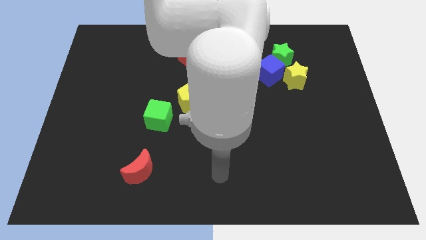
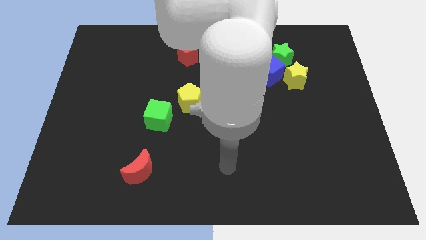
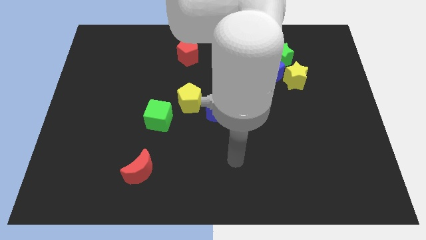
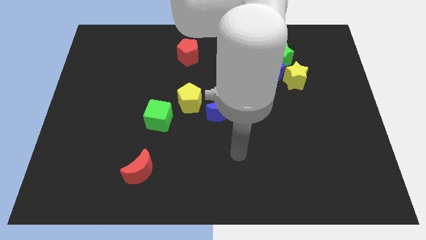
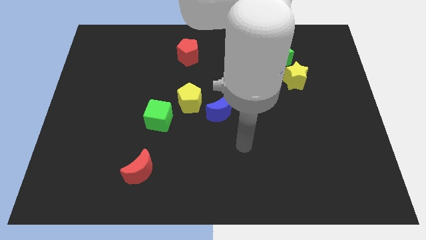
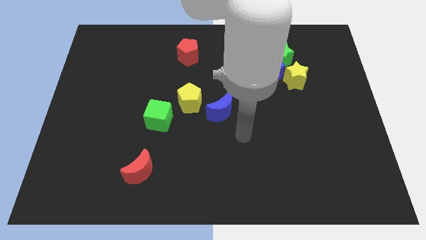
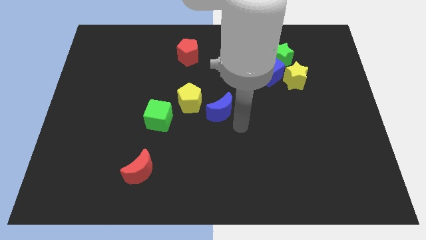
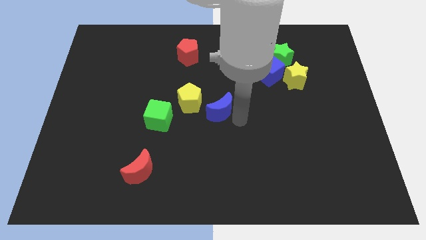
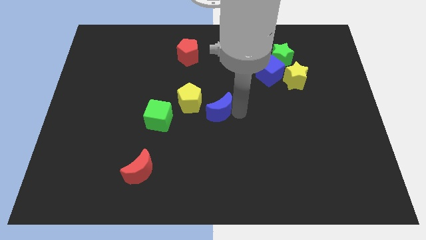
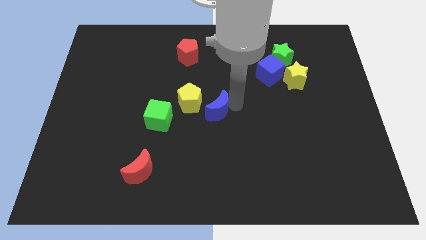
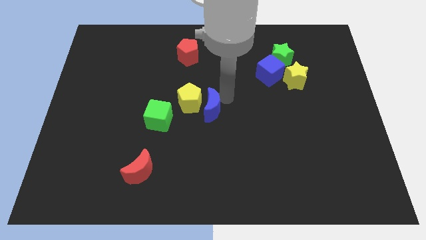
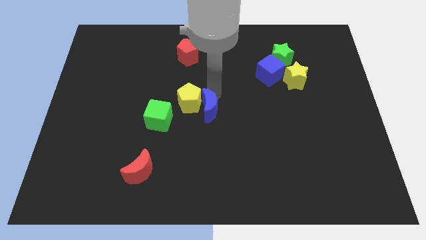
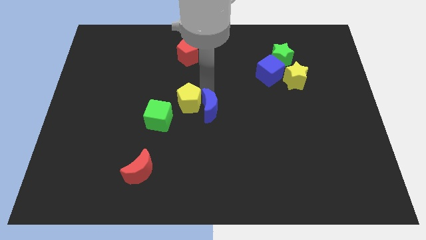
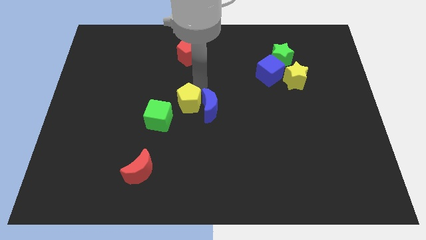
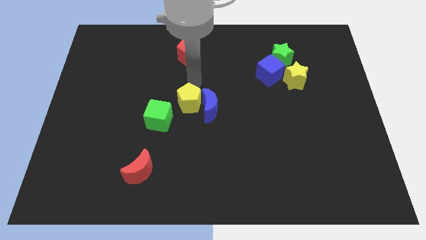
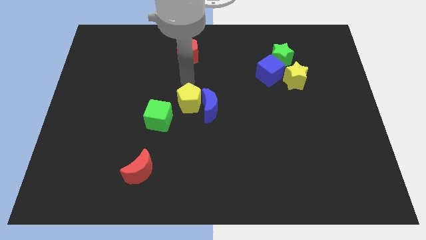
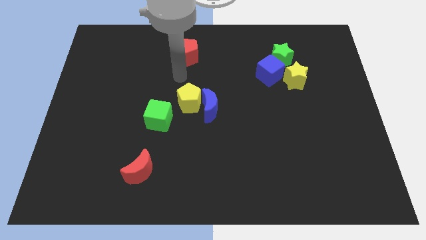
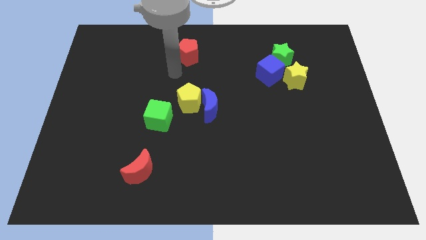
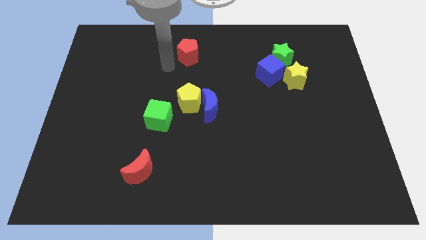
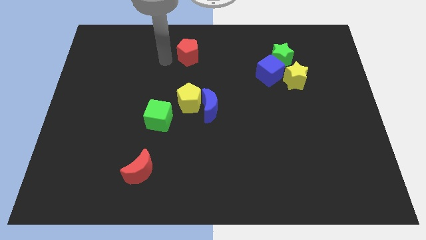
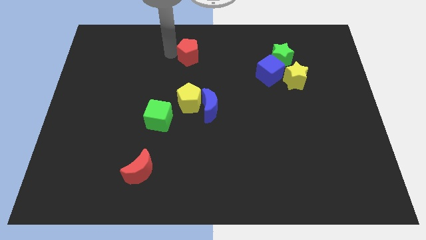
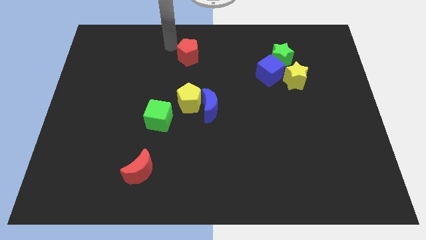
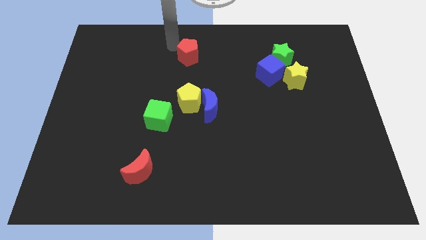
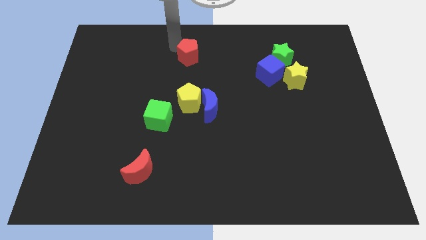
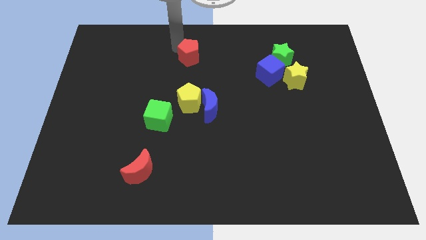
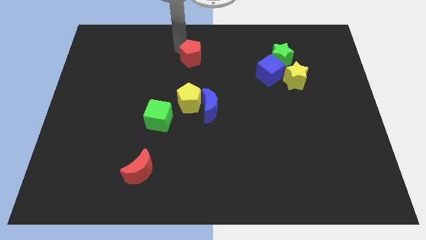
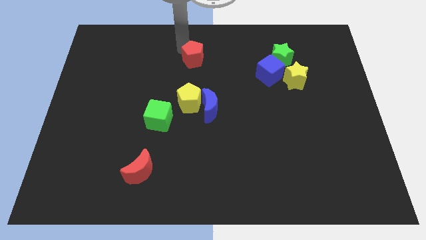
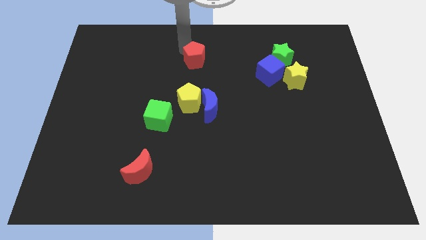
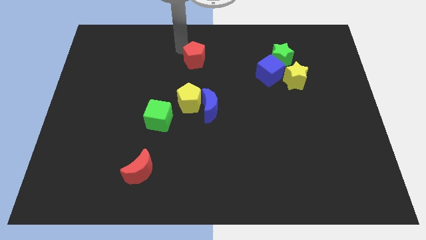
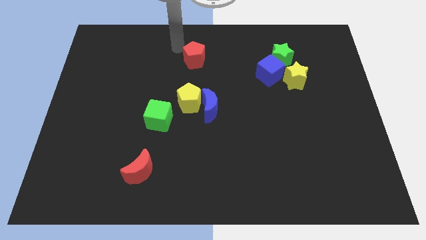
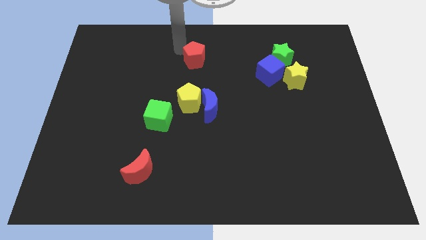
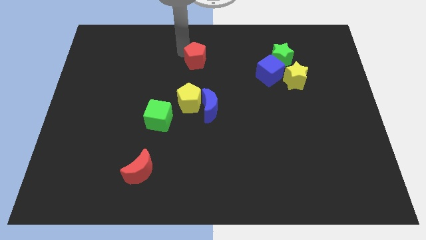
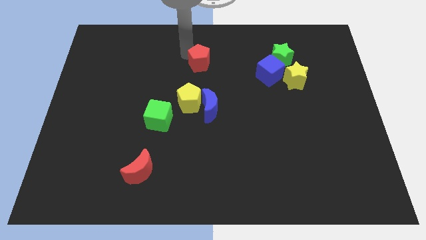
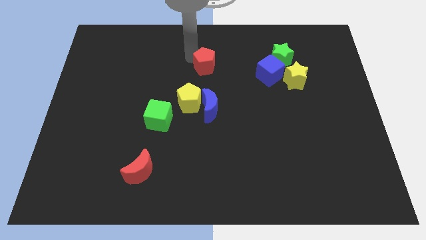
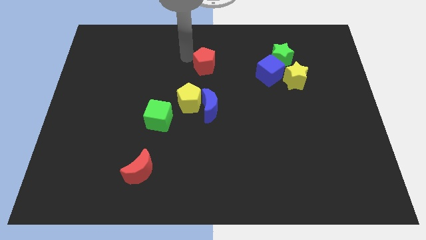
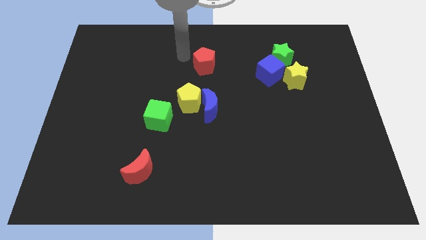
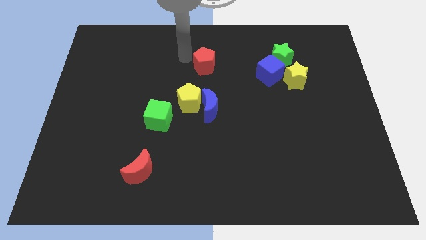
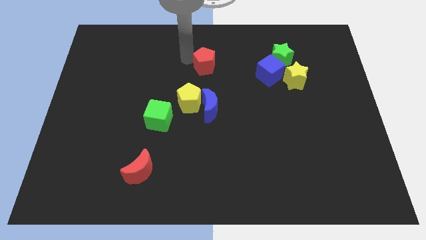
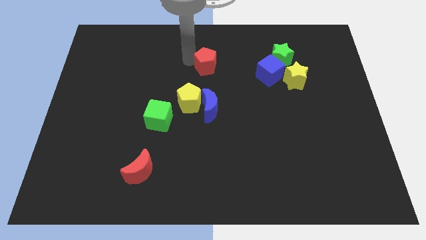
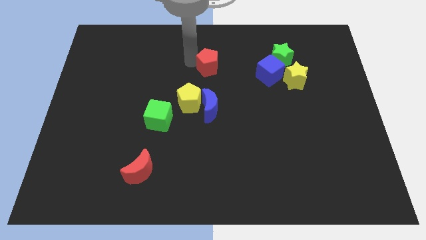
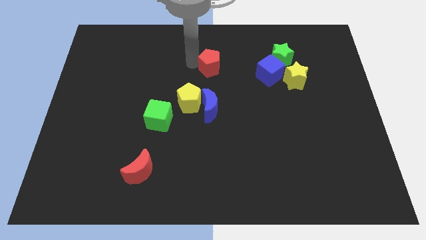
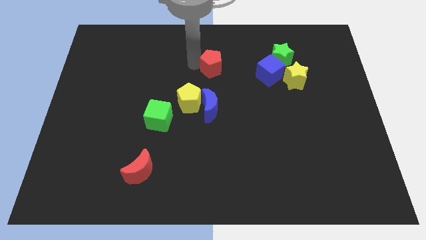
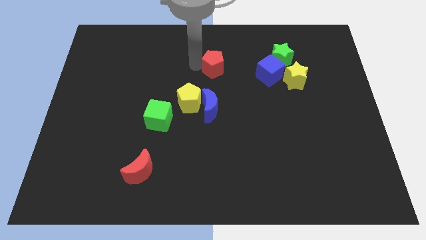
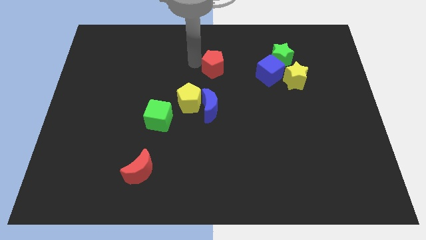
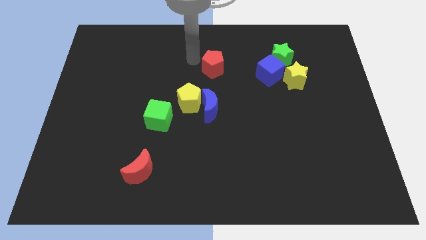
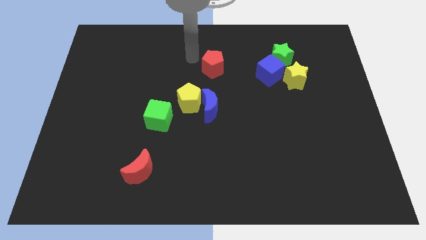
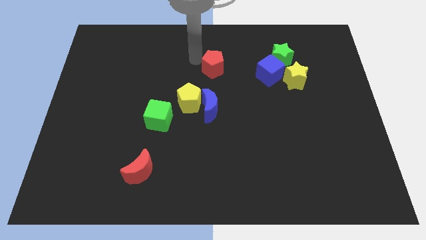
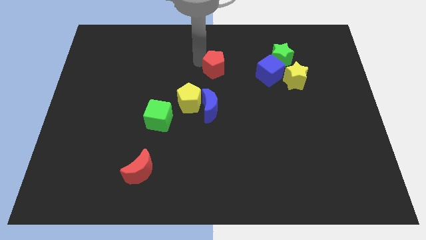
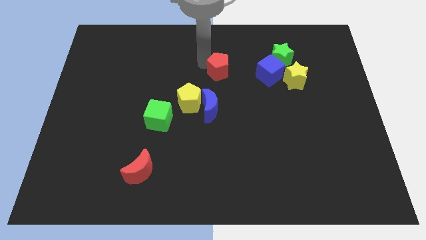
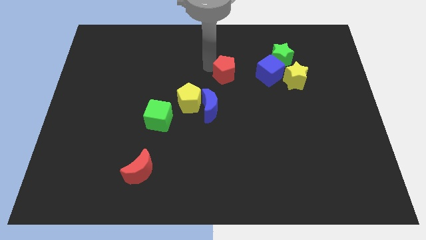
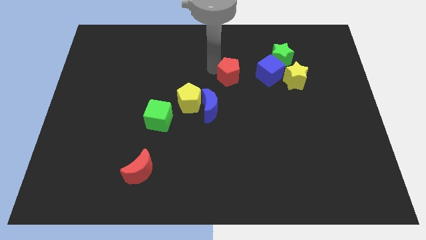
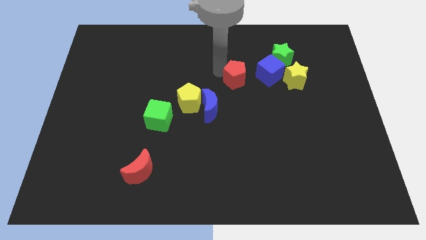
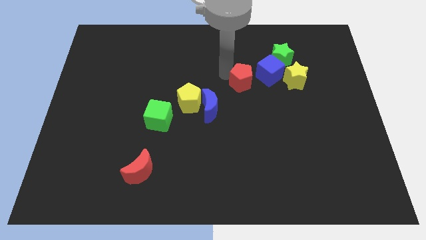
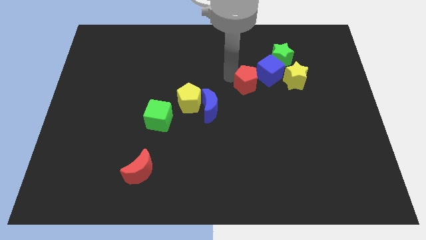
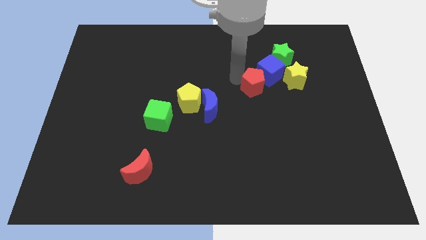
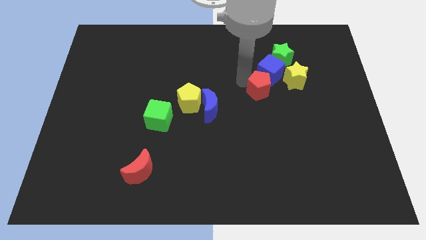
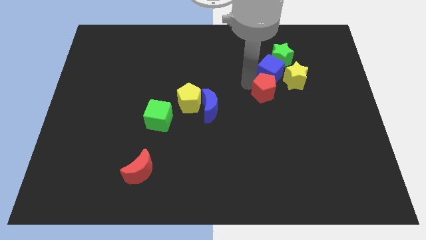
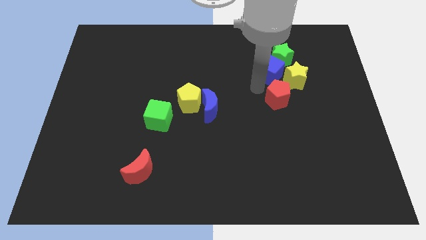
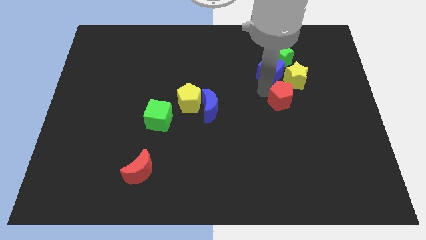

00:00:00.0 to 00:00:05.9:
slide the red pentagon to the bottom of the yellow star

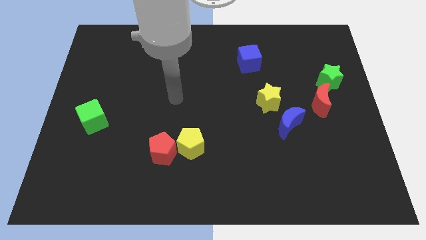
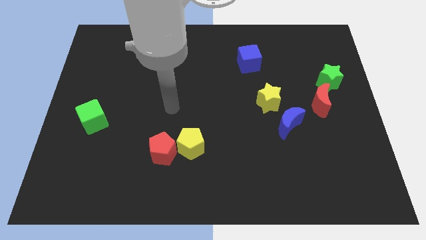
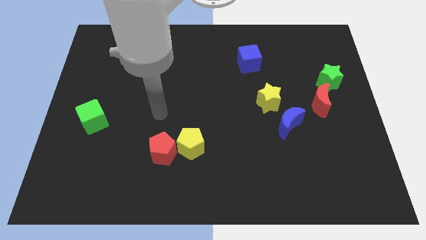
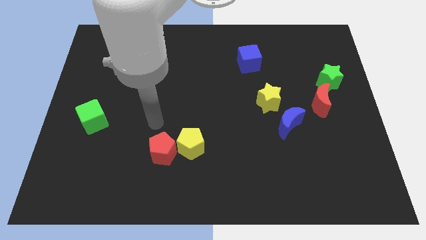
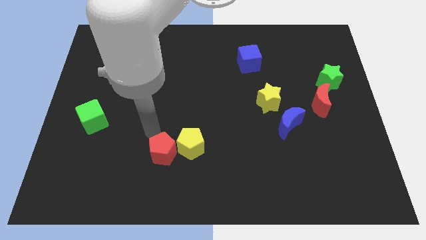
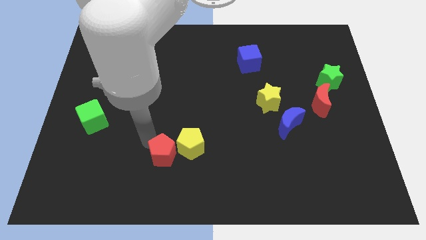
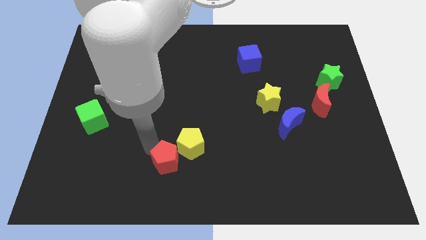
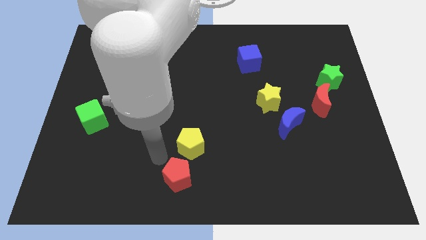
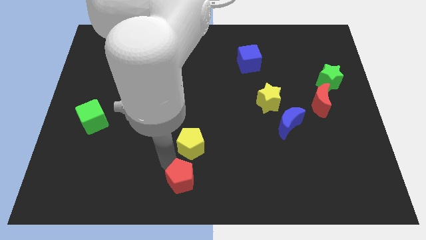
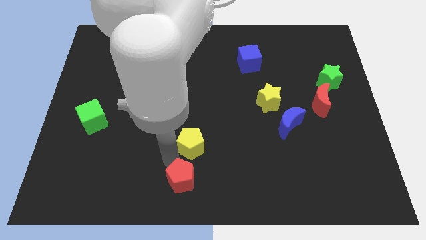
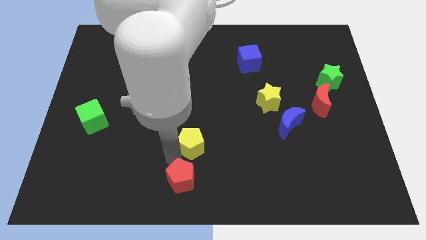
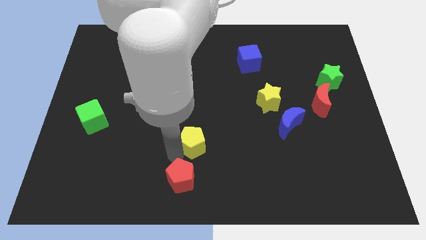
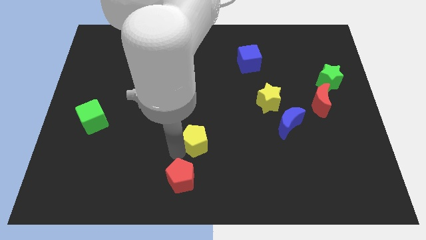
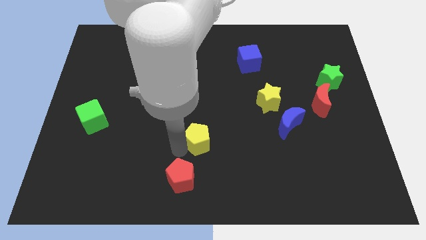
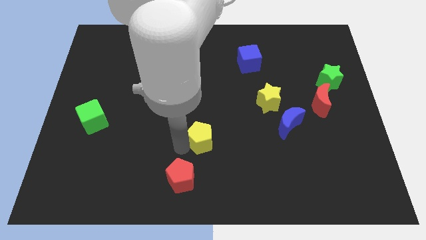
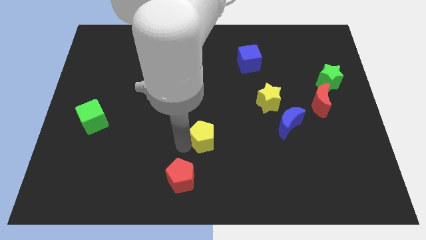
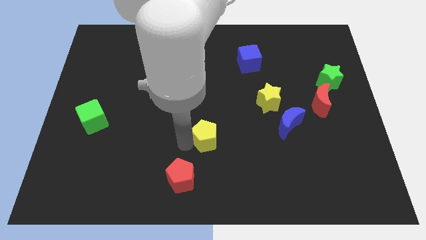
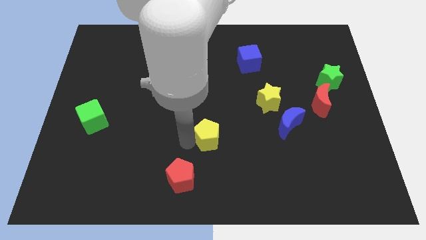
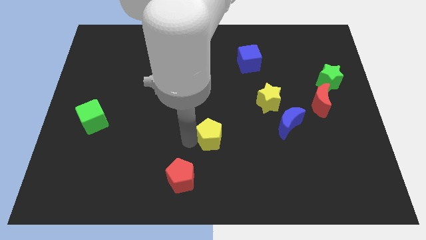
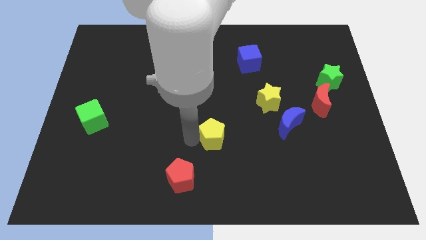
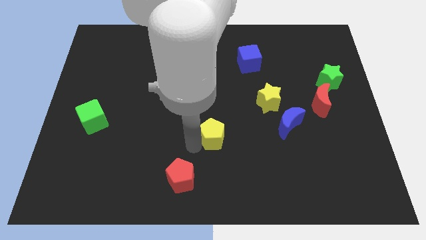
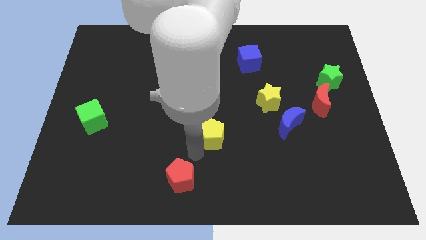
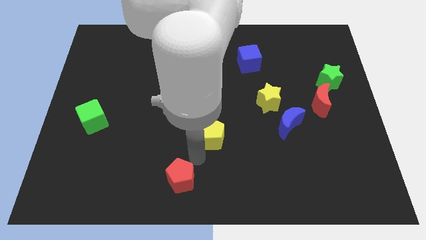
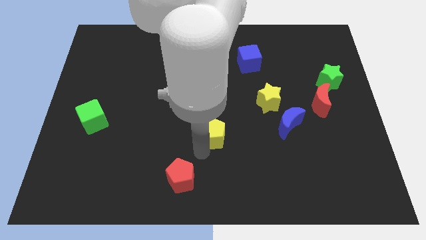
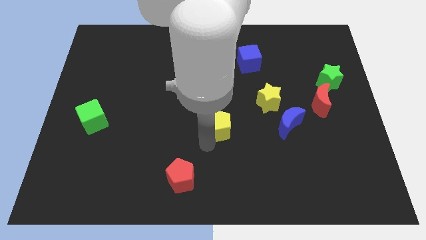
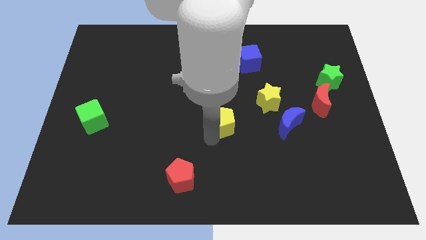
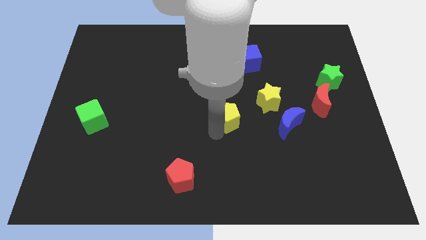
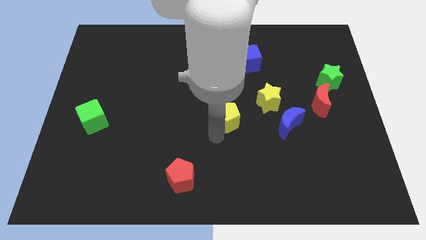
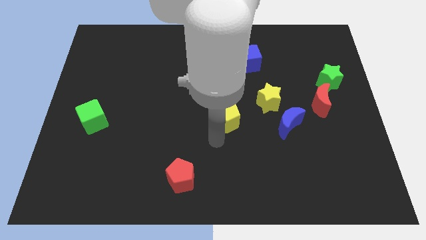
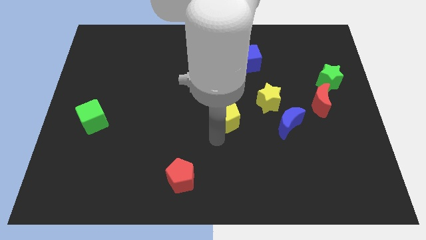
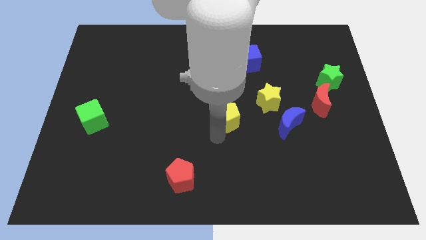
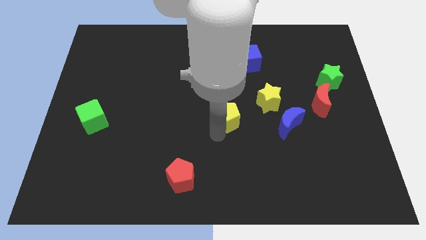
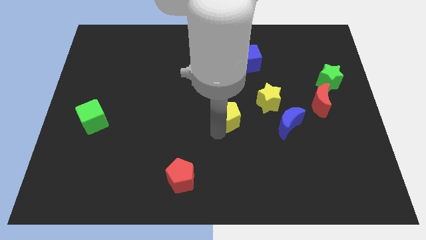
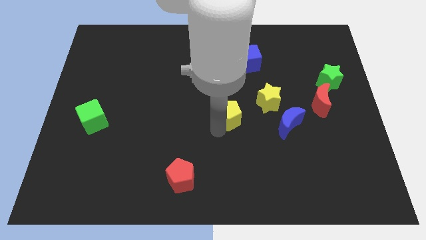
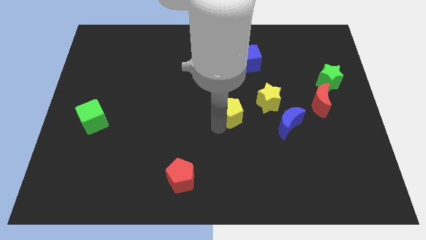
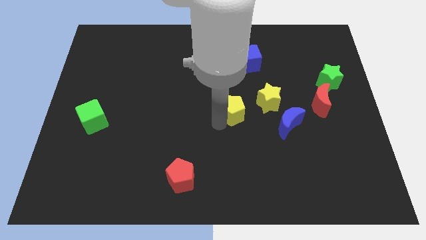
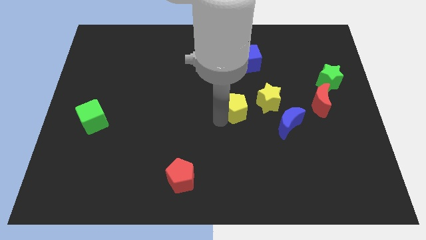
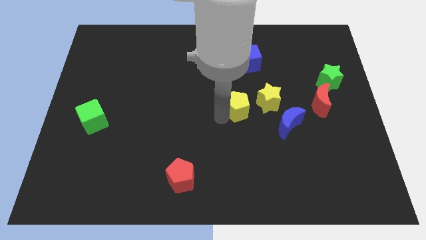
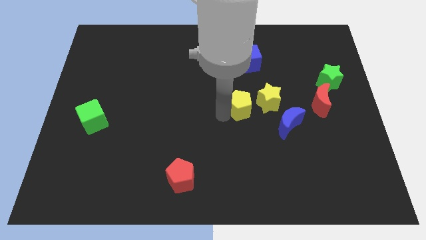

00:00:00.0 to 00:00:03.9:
push the yellow pentagon to the bottom side of the blue cube
